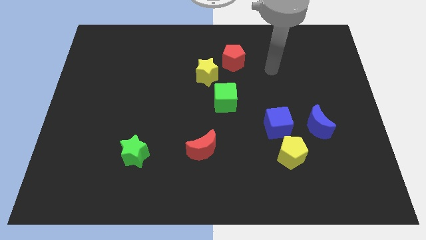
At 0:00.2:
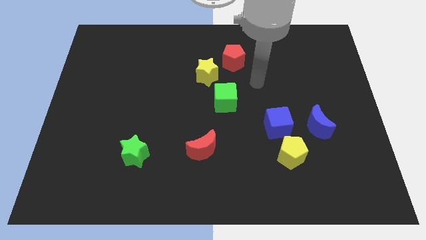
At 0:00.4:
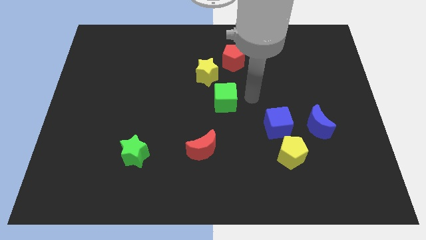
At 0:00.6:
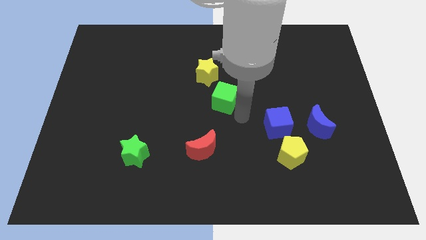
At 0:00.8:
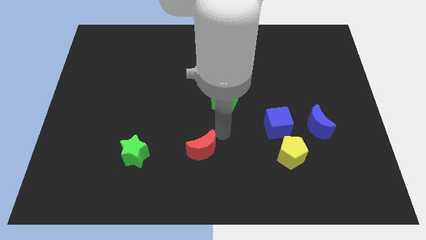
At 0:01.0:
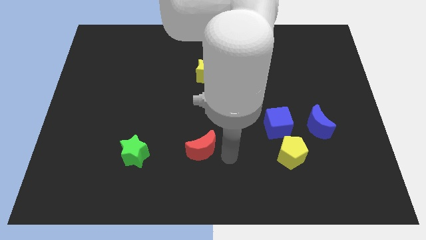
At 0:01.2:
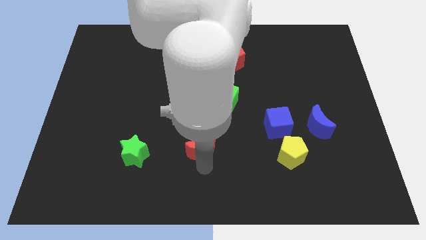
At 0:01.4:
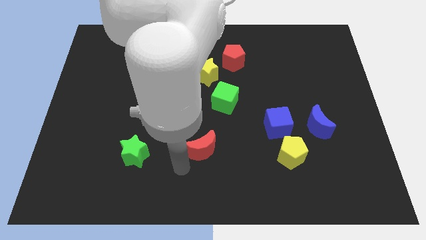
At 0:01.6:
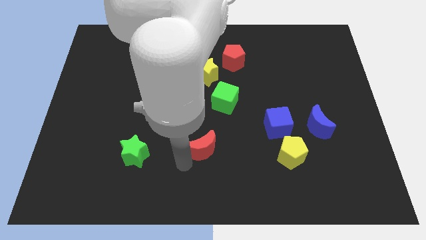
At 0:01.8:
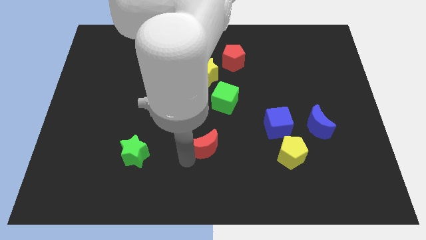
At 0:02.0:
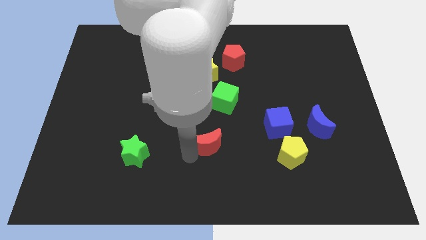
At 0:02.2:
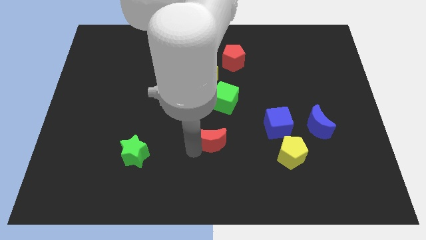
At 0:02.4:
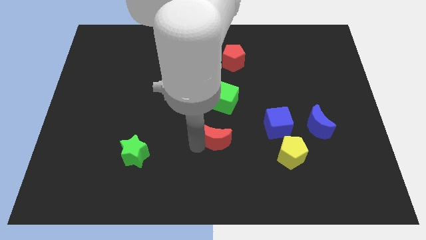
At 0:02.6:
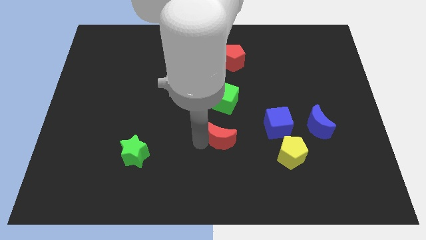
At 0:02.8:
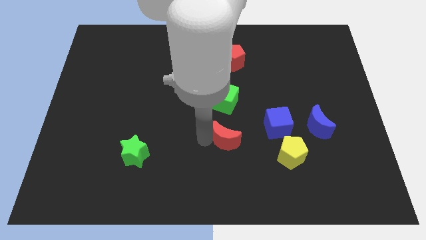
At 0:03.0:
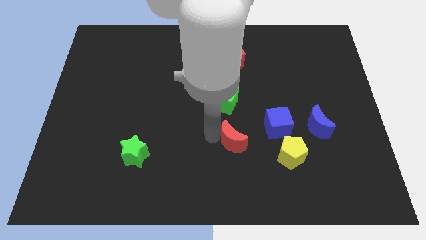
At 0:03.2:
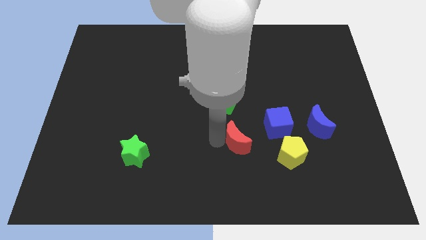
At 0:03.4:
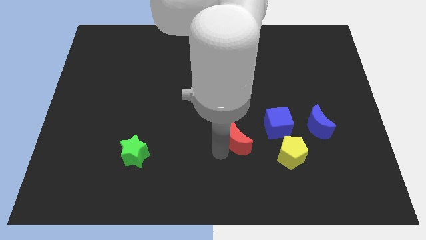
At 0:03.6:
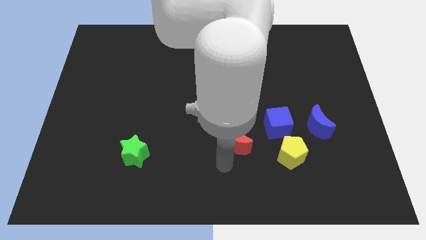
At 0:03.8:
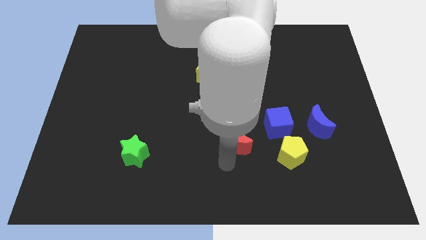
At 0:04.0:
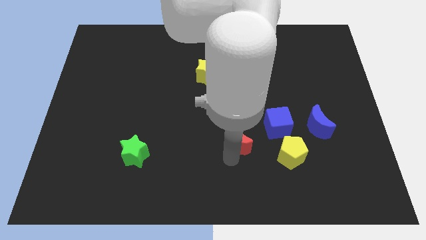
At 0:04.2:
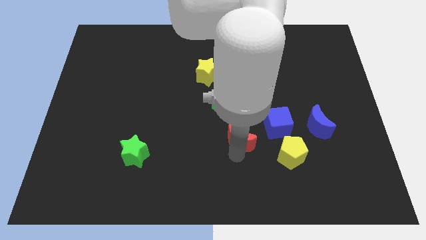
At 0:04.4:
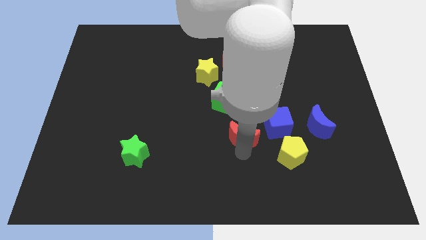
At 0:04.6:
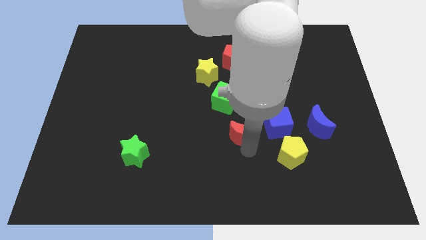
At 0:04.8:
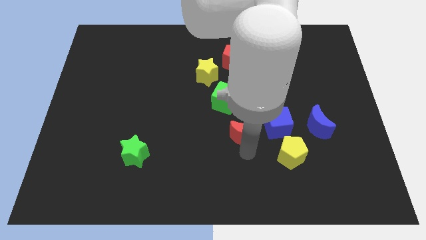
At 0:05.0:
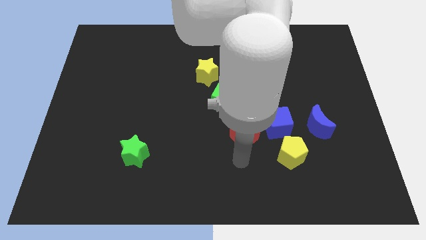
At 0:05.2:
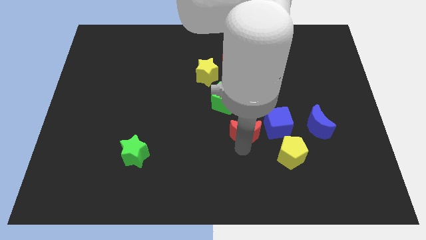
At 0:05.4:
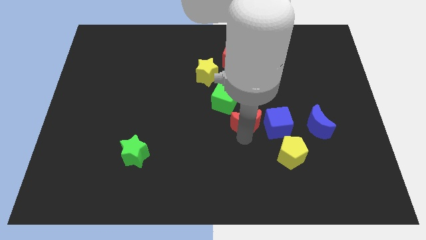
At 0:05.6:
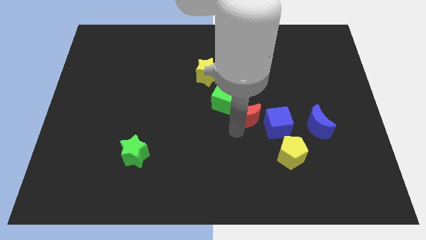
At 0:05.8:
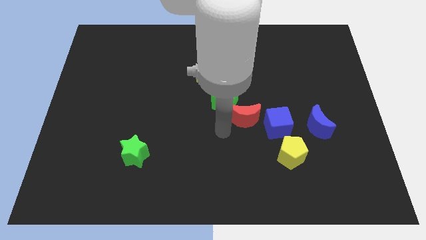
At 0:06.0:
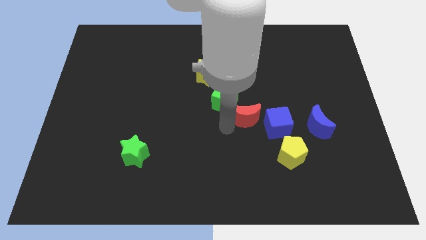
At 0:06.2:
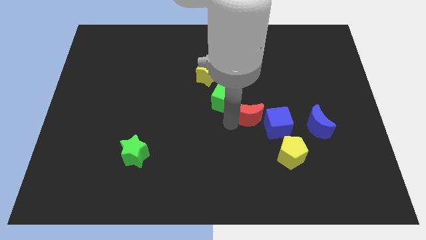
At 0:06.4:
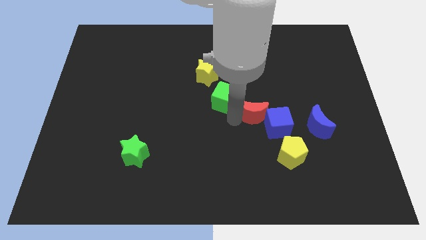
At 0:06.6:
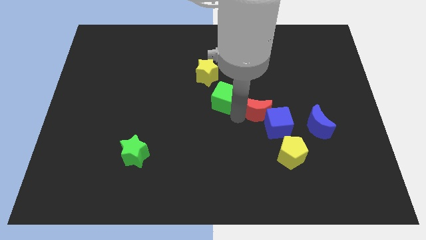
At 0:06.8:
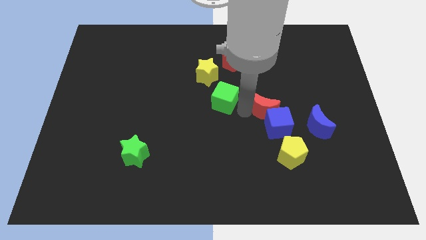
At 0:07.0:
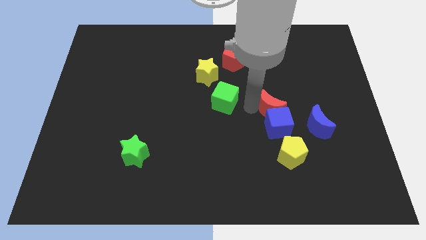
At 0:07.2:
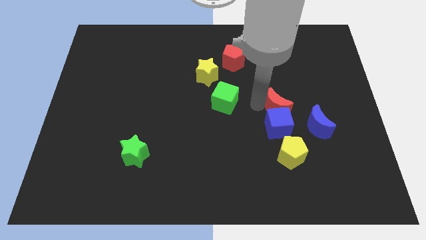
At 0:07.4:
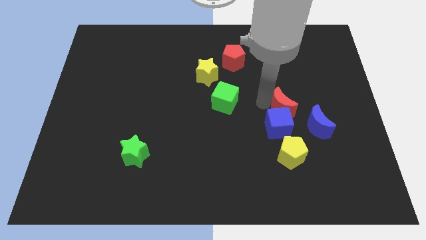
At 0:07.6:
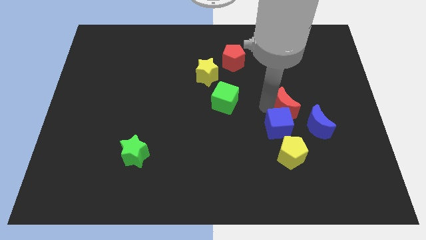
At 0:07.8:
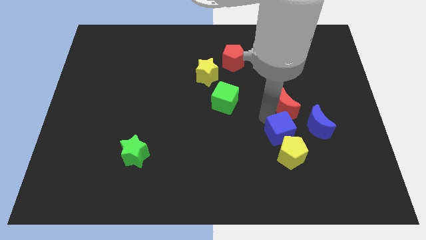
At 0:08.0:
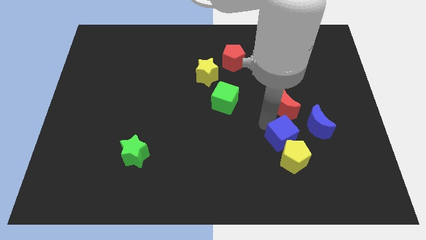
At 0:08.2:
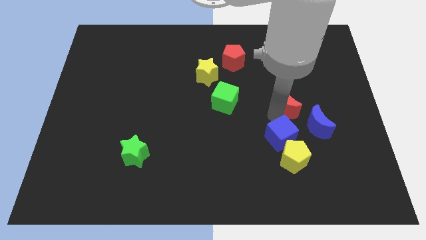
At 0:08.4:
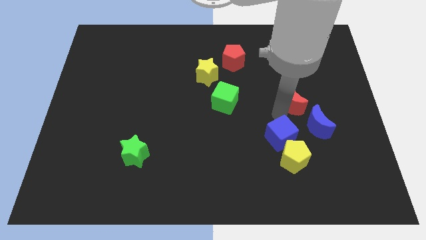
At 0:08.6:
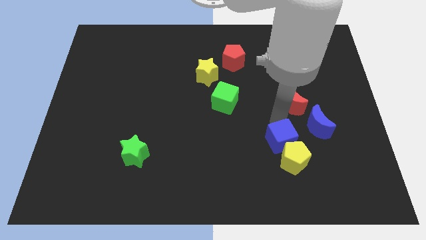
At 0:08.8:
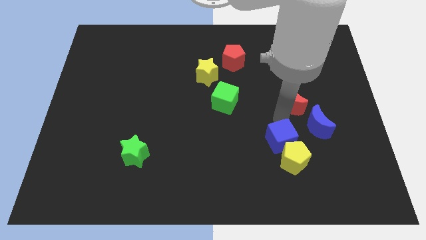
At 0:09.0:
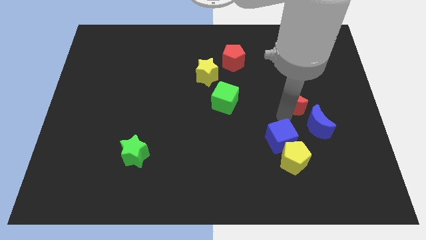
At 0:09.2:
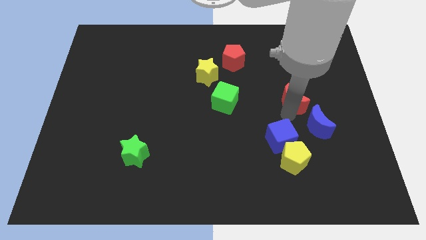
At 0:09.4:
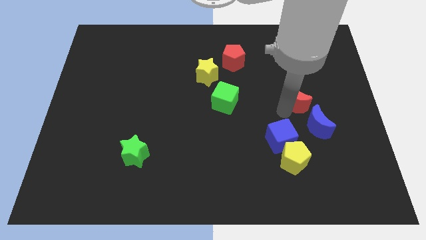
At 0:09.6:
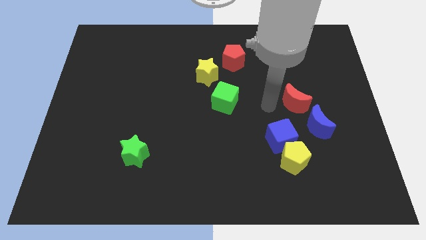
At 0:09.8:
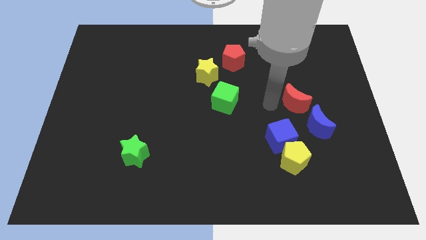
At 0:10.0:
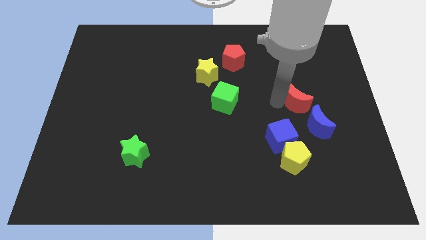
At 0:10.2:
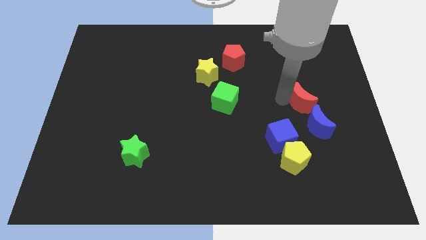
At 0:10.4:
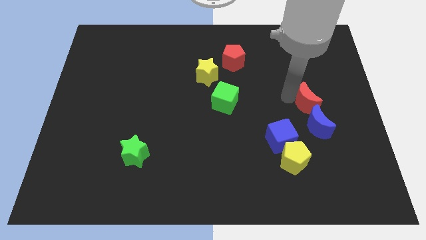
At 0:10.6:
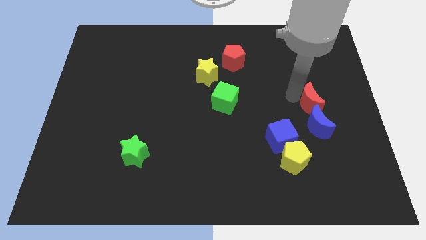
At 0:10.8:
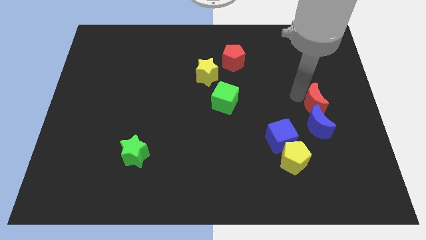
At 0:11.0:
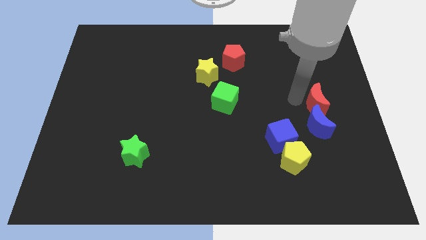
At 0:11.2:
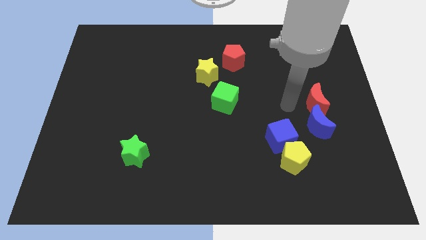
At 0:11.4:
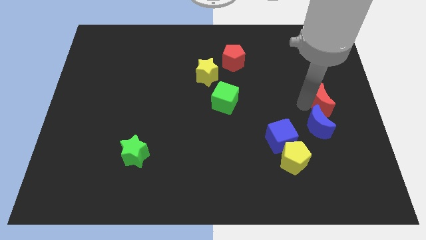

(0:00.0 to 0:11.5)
slide the red moon to the right side
